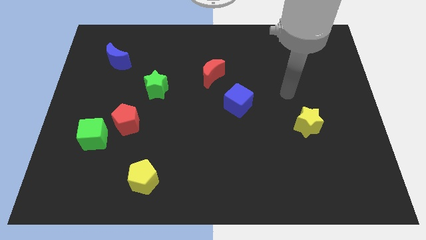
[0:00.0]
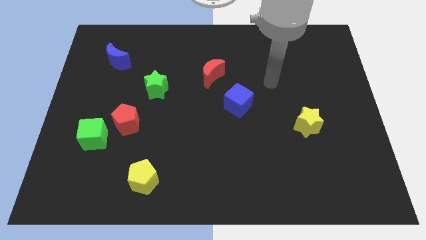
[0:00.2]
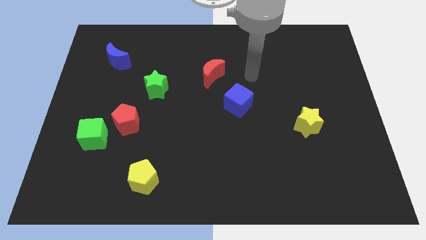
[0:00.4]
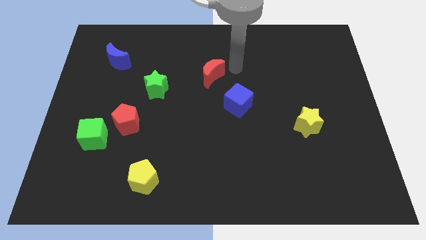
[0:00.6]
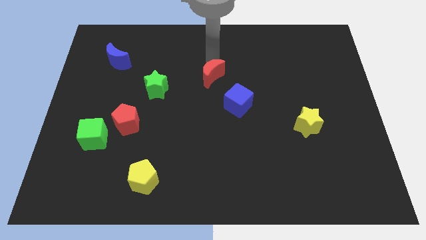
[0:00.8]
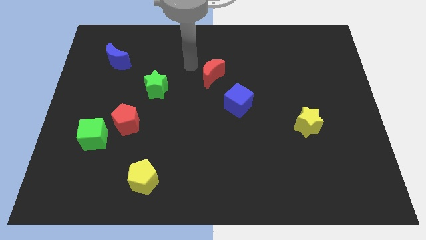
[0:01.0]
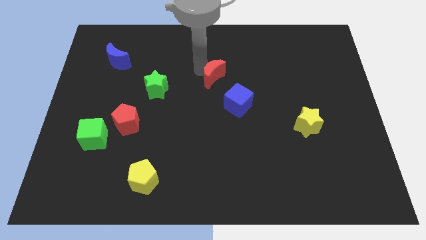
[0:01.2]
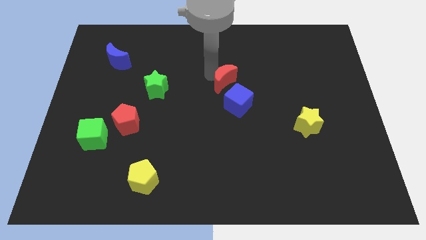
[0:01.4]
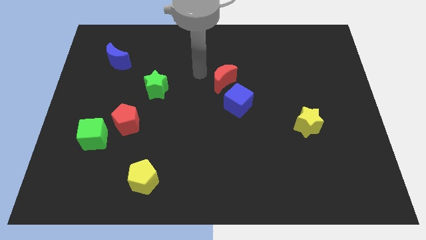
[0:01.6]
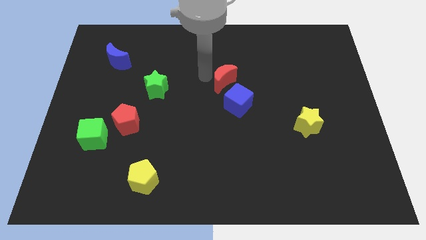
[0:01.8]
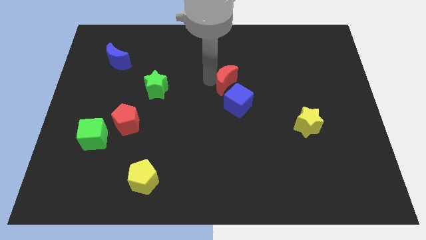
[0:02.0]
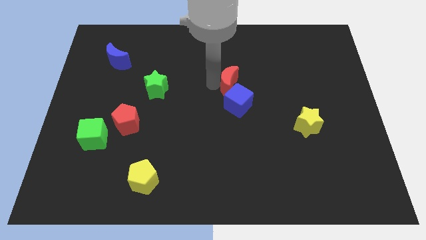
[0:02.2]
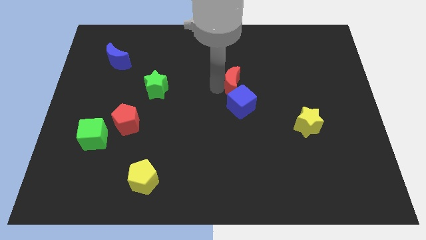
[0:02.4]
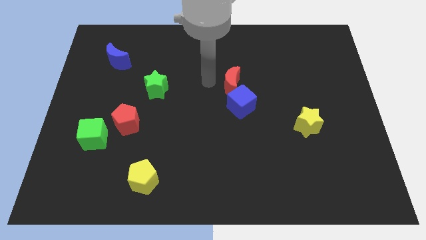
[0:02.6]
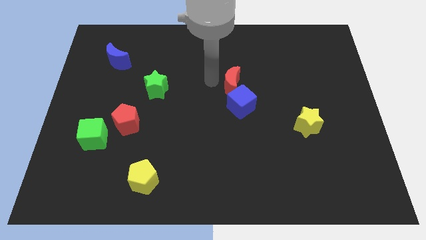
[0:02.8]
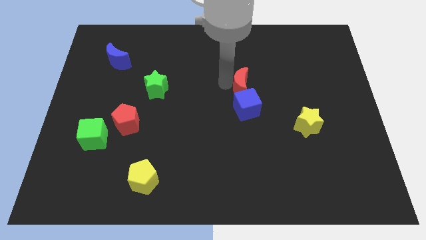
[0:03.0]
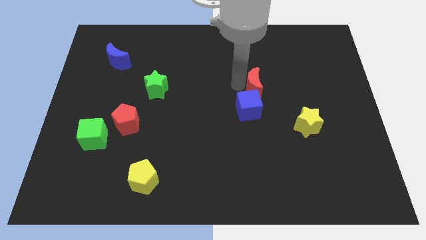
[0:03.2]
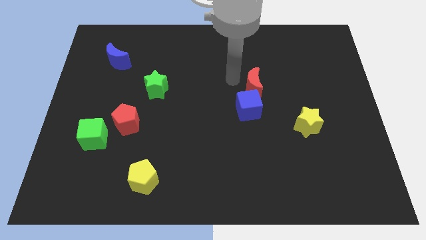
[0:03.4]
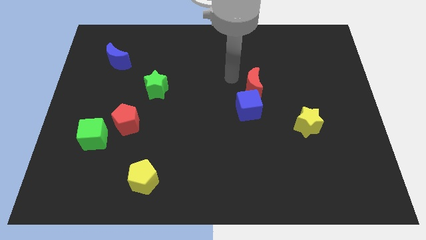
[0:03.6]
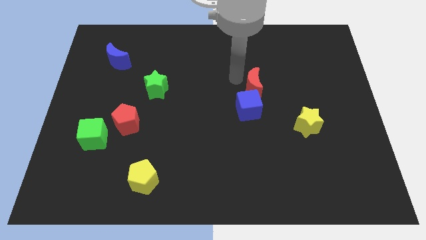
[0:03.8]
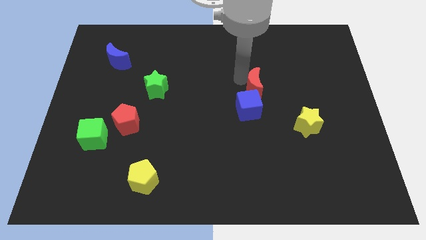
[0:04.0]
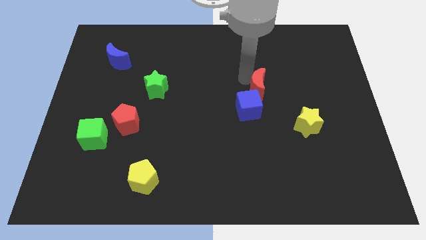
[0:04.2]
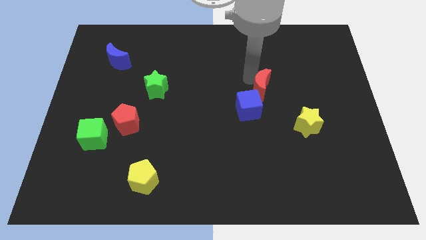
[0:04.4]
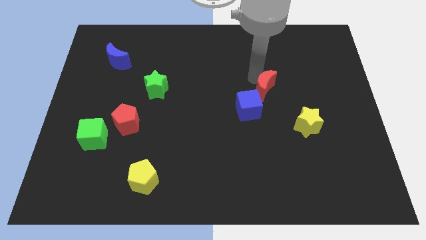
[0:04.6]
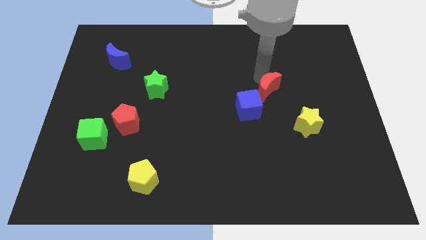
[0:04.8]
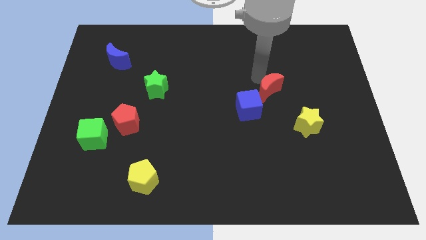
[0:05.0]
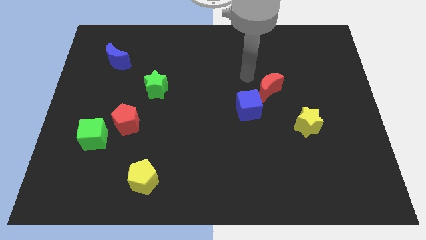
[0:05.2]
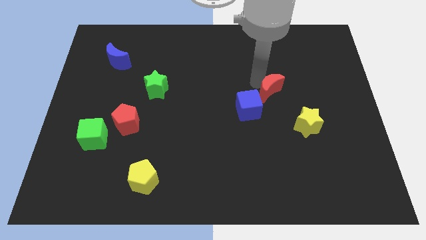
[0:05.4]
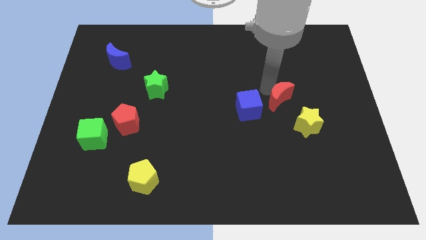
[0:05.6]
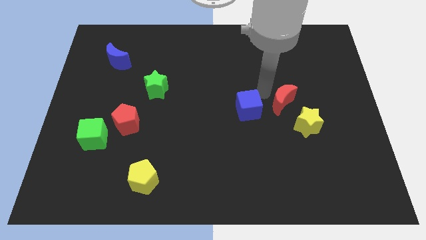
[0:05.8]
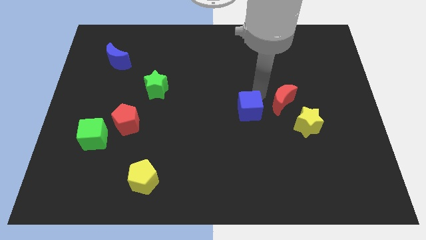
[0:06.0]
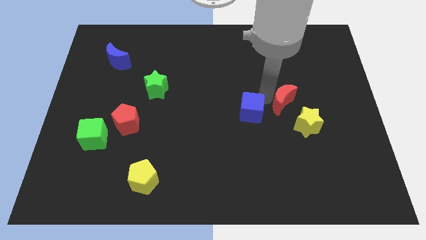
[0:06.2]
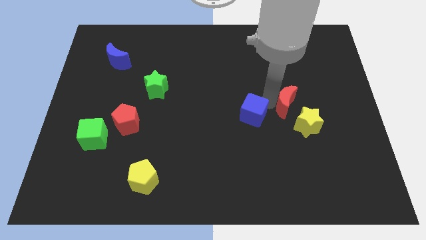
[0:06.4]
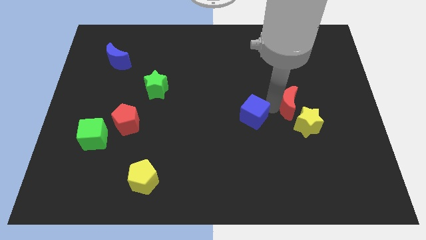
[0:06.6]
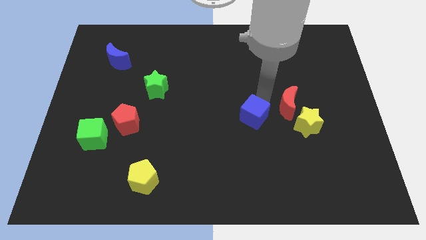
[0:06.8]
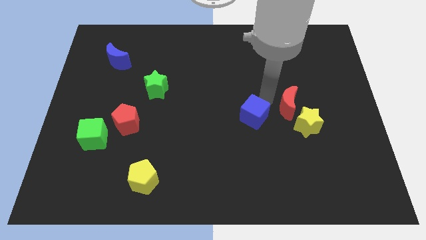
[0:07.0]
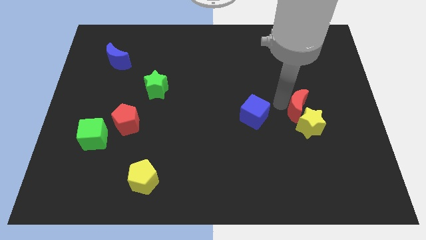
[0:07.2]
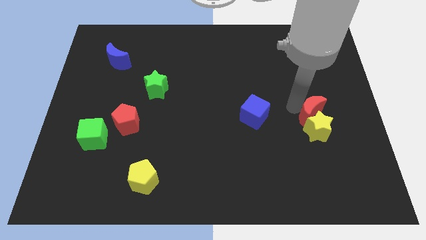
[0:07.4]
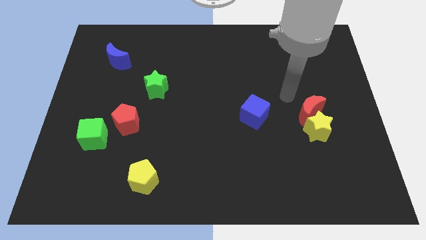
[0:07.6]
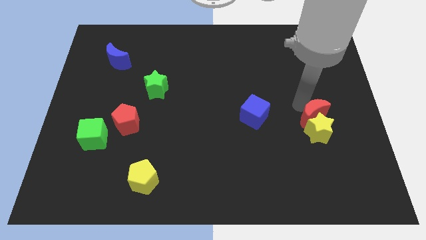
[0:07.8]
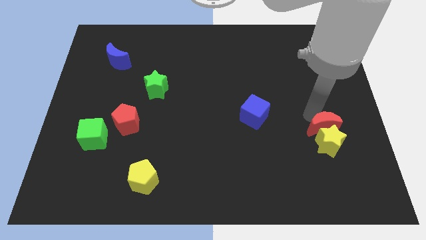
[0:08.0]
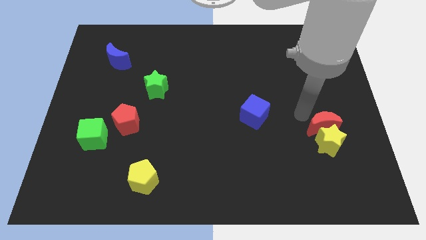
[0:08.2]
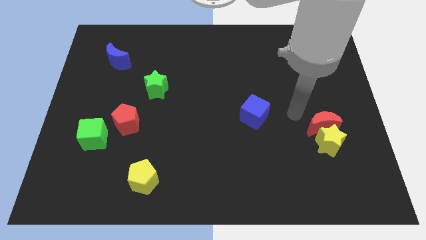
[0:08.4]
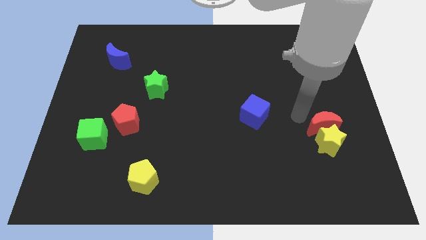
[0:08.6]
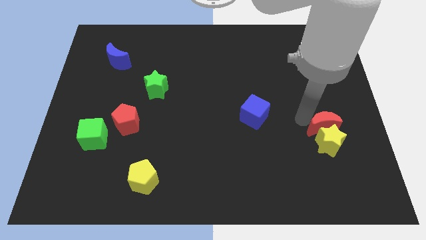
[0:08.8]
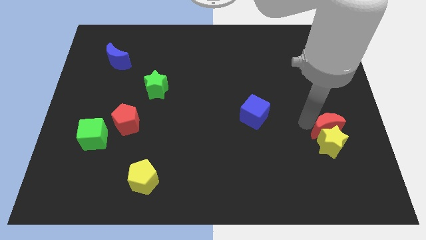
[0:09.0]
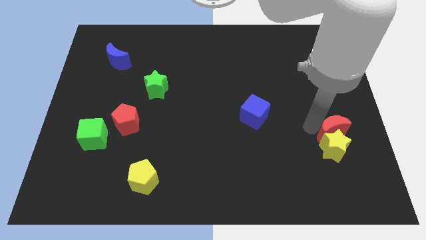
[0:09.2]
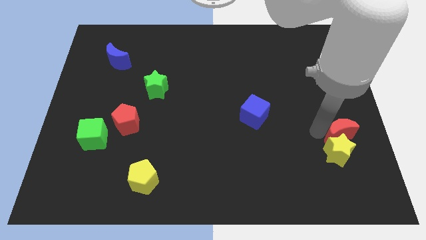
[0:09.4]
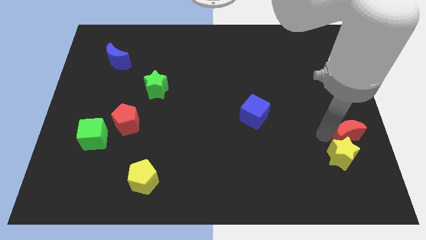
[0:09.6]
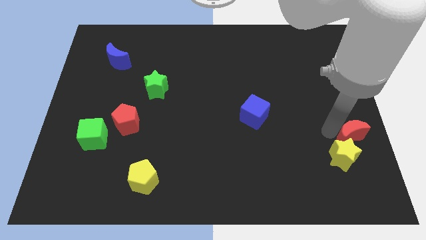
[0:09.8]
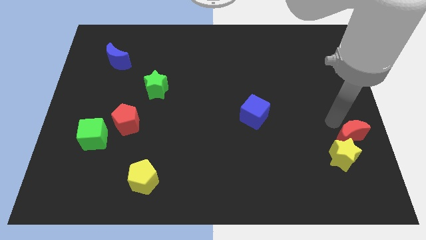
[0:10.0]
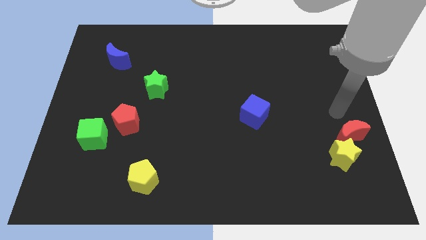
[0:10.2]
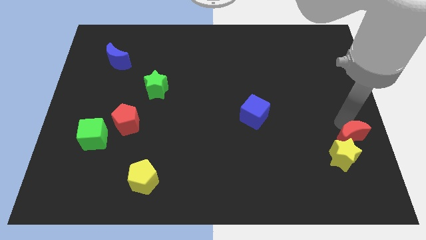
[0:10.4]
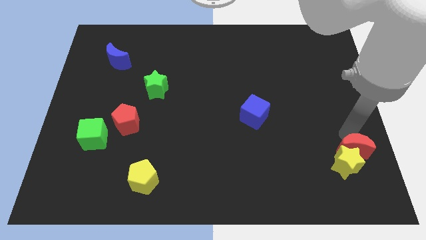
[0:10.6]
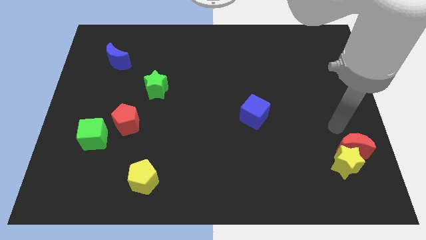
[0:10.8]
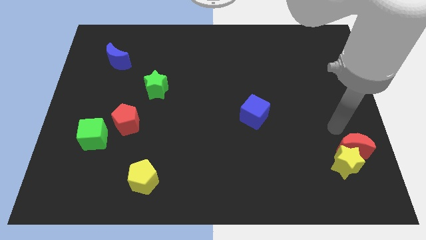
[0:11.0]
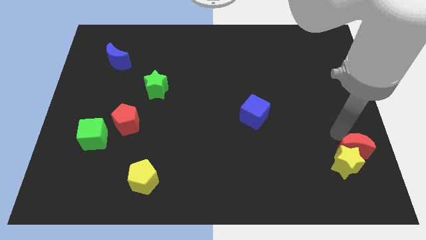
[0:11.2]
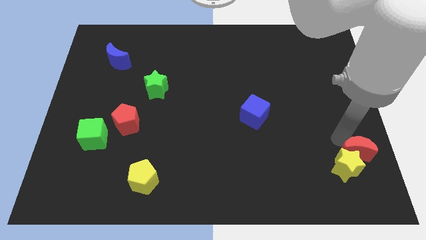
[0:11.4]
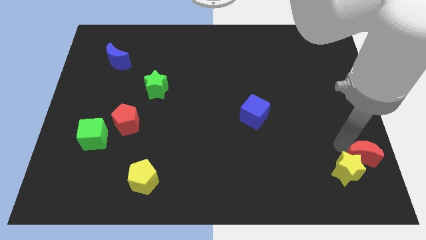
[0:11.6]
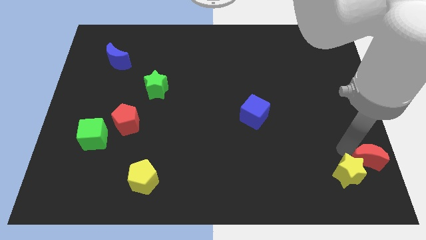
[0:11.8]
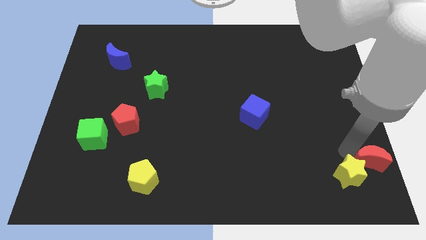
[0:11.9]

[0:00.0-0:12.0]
put the red moon to the bottom right corner
